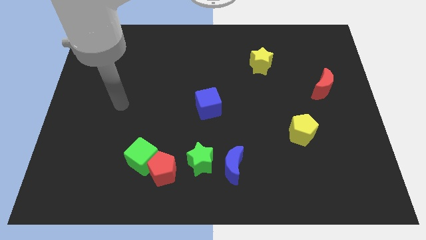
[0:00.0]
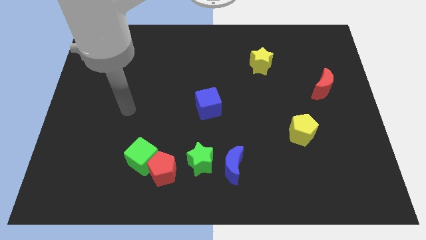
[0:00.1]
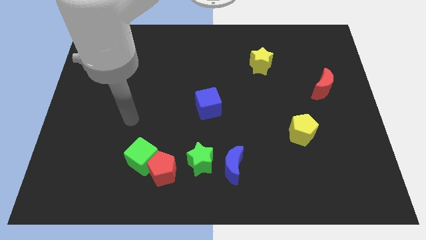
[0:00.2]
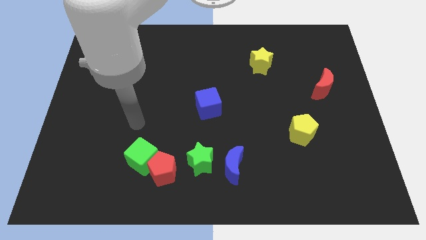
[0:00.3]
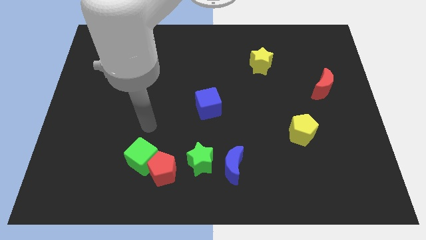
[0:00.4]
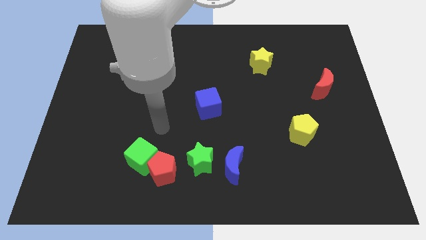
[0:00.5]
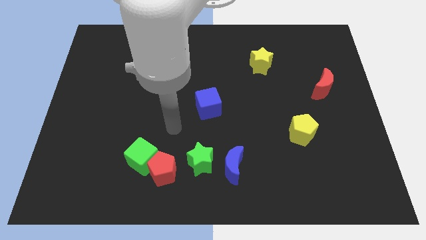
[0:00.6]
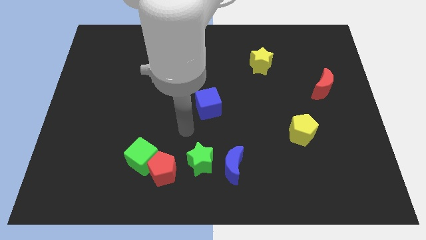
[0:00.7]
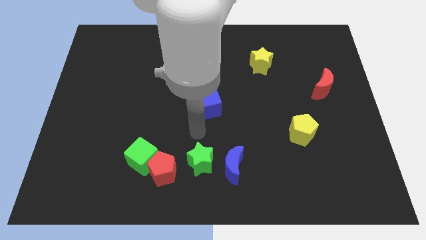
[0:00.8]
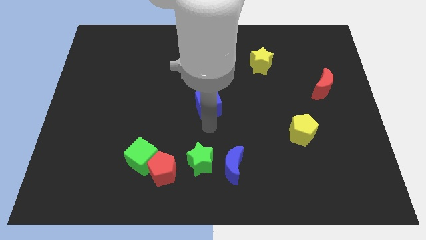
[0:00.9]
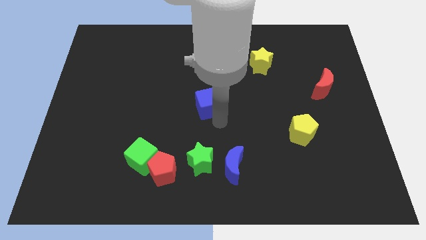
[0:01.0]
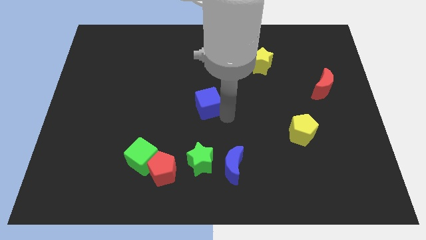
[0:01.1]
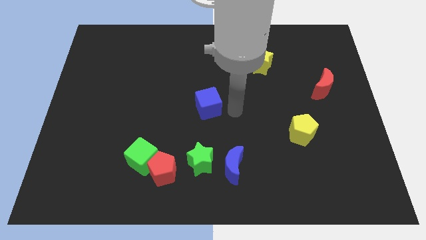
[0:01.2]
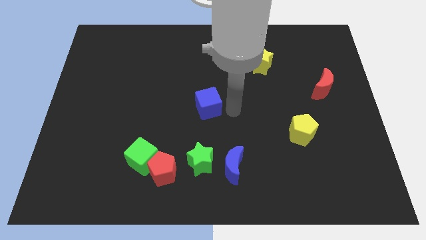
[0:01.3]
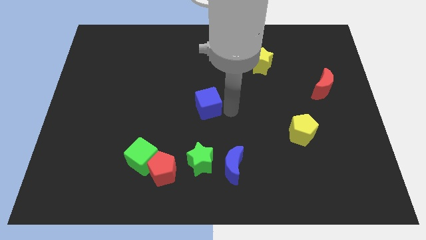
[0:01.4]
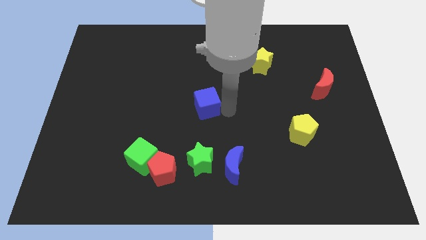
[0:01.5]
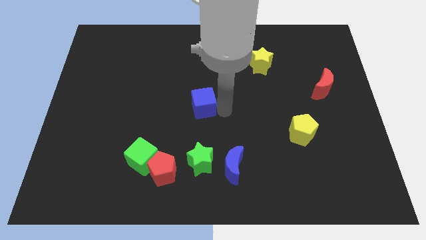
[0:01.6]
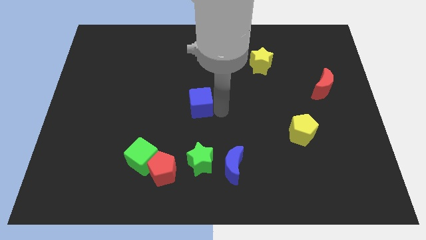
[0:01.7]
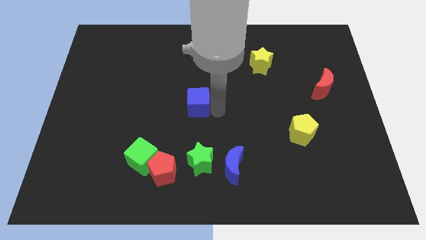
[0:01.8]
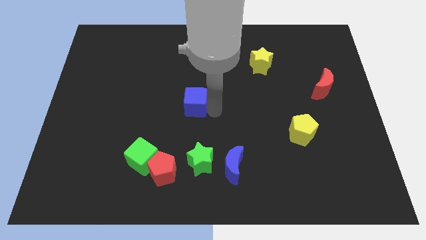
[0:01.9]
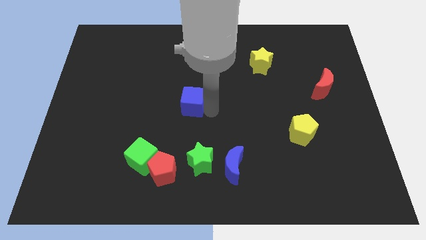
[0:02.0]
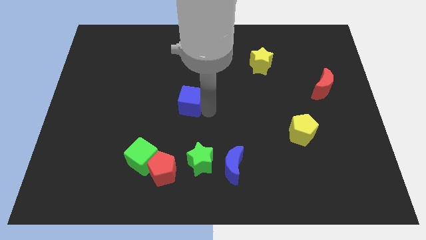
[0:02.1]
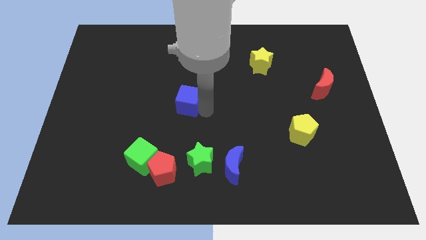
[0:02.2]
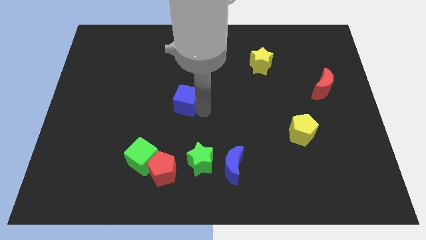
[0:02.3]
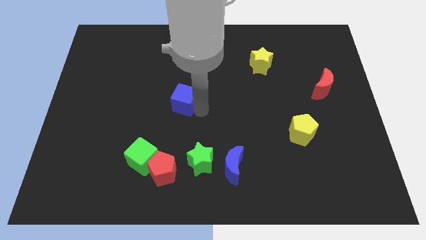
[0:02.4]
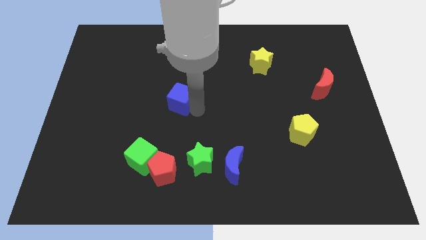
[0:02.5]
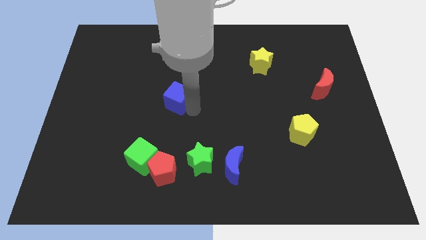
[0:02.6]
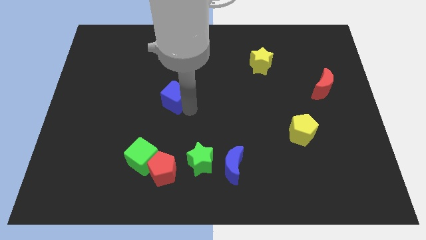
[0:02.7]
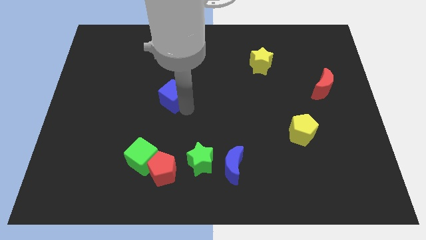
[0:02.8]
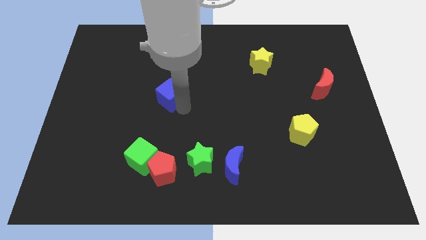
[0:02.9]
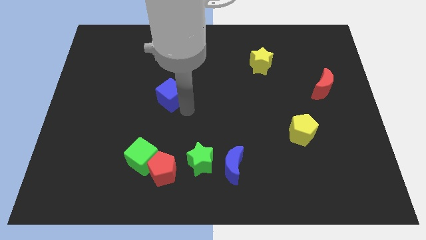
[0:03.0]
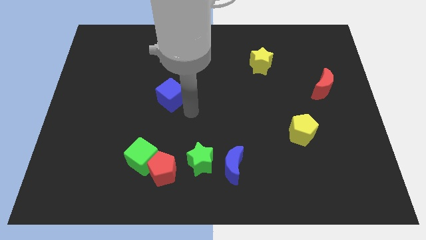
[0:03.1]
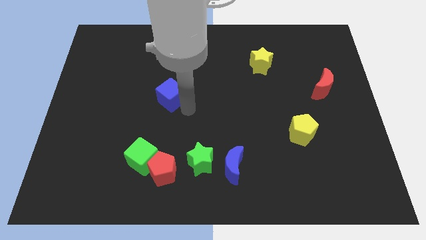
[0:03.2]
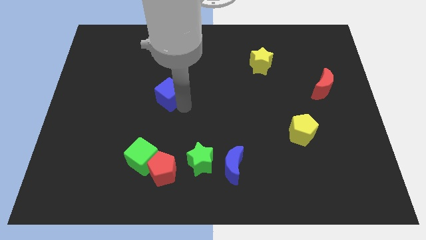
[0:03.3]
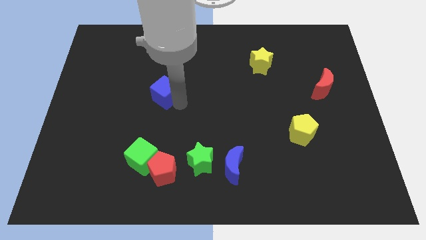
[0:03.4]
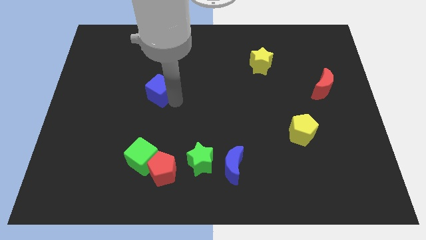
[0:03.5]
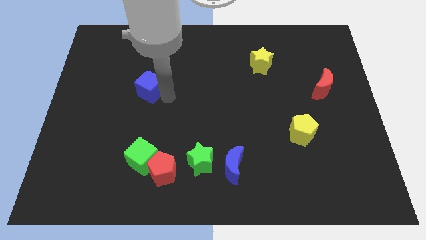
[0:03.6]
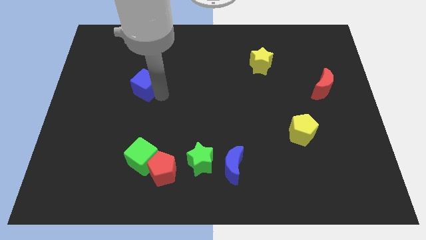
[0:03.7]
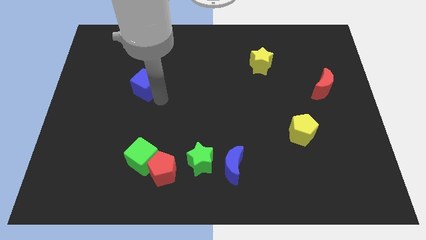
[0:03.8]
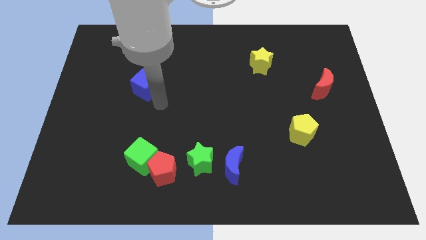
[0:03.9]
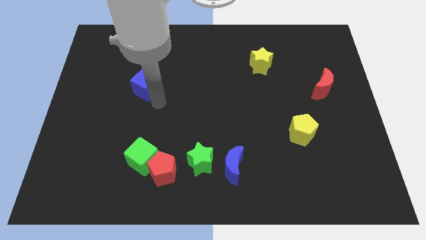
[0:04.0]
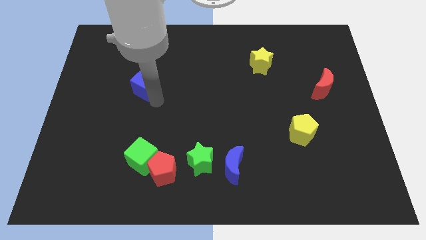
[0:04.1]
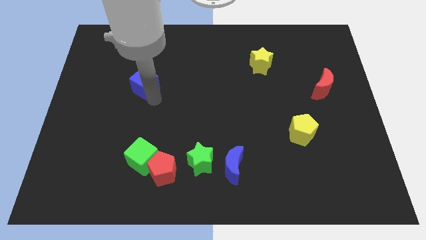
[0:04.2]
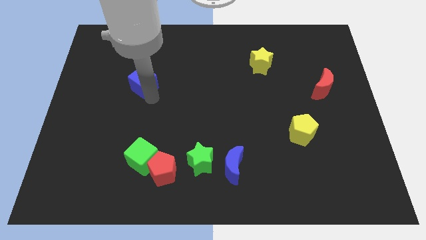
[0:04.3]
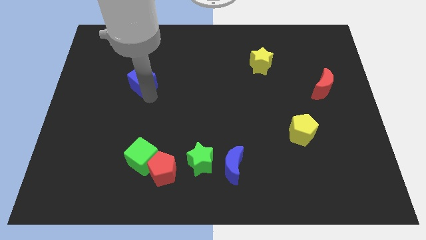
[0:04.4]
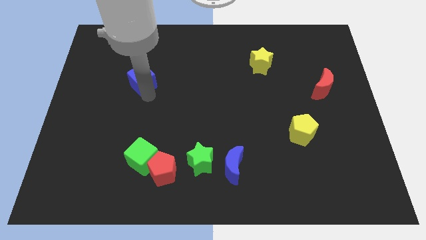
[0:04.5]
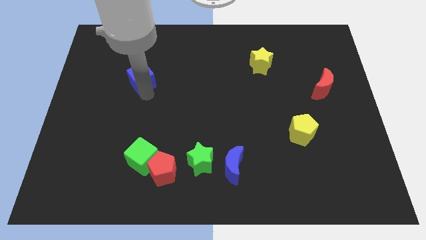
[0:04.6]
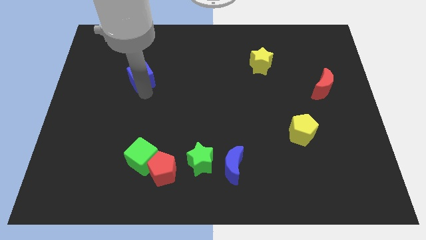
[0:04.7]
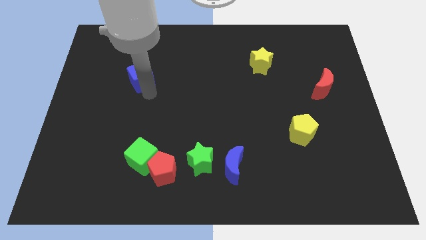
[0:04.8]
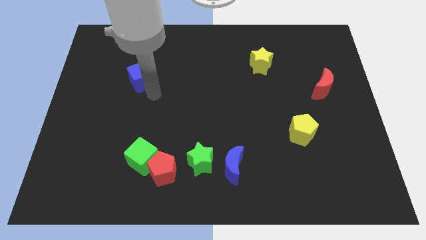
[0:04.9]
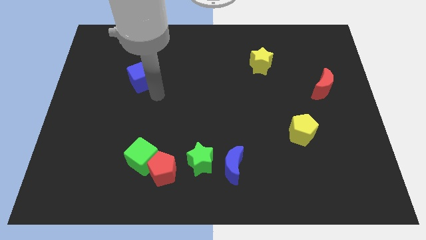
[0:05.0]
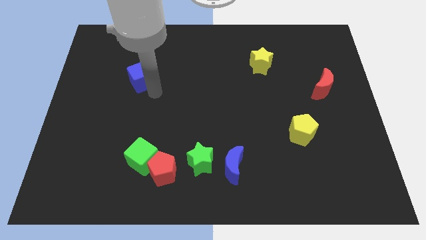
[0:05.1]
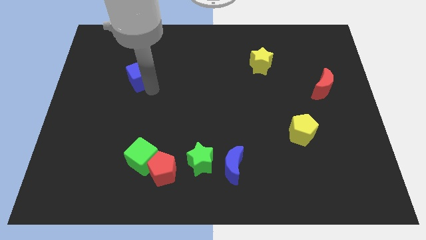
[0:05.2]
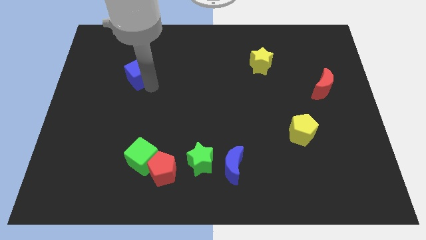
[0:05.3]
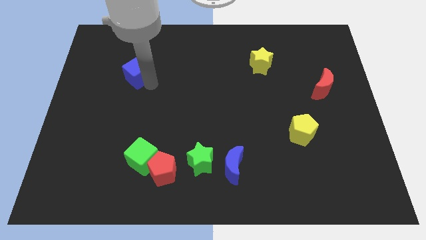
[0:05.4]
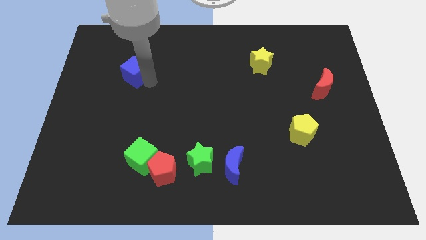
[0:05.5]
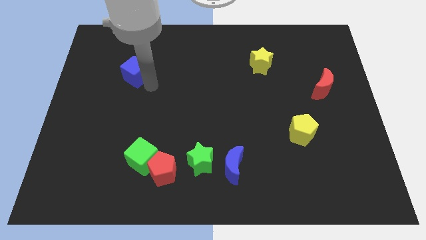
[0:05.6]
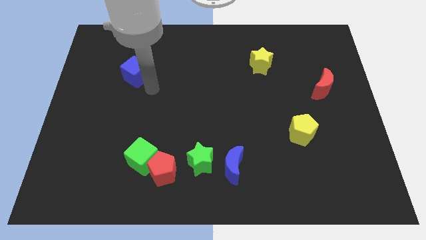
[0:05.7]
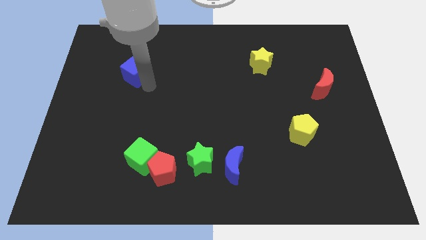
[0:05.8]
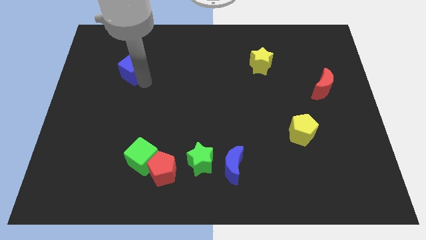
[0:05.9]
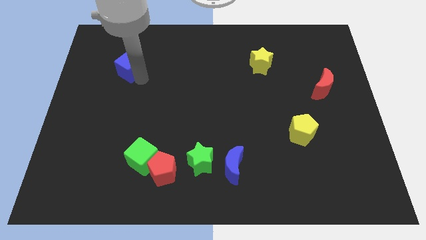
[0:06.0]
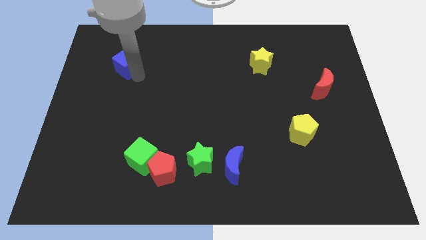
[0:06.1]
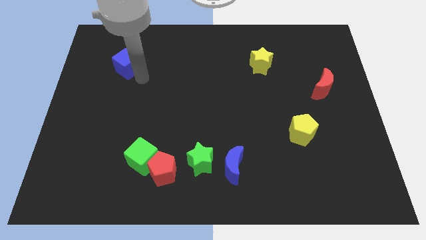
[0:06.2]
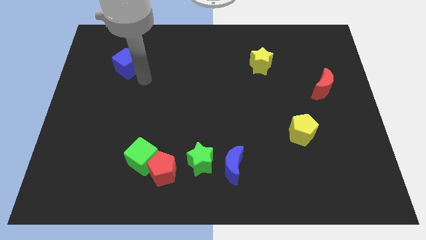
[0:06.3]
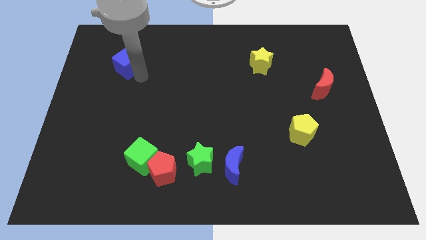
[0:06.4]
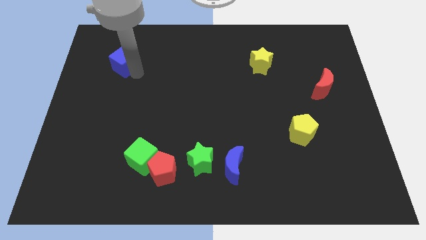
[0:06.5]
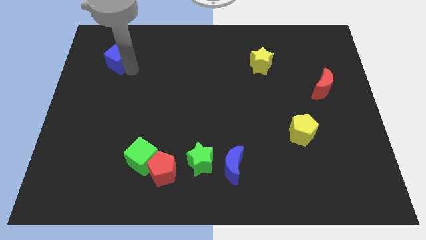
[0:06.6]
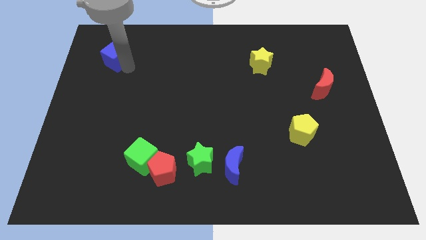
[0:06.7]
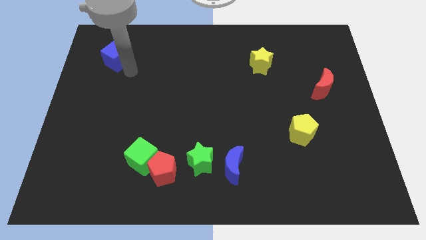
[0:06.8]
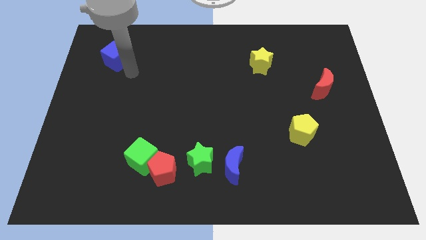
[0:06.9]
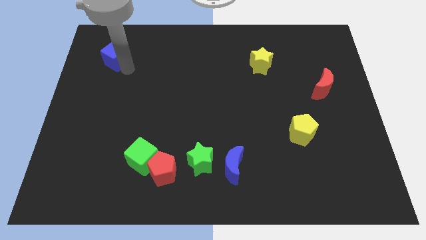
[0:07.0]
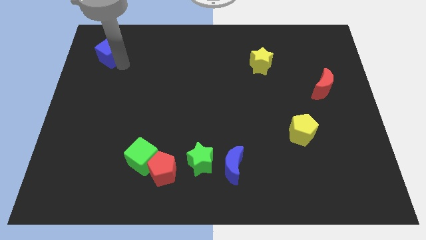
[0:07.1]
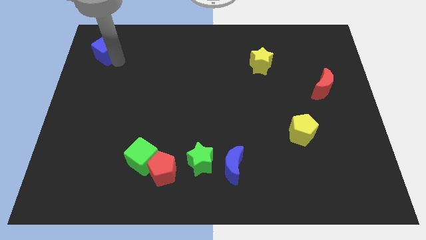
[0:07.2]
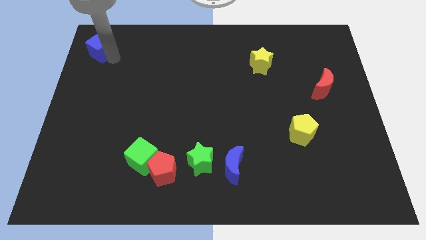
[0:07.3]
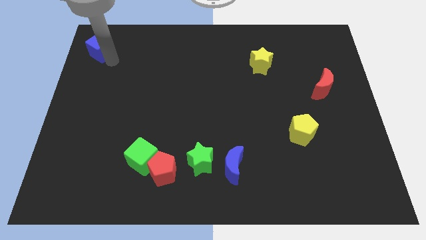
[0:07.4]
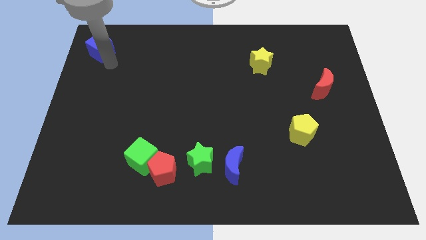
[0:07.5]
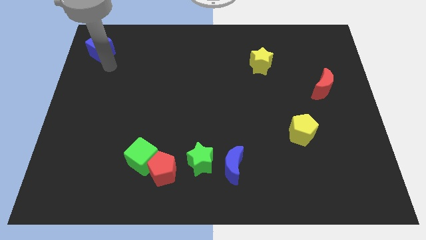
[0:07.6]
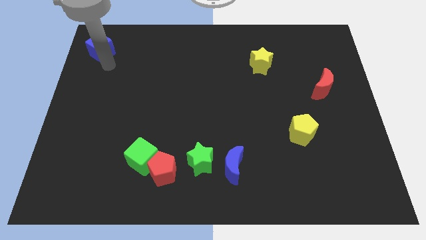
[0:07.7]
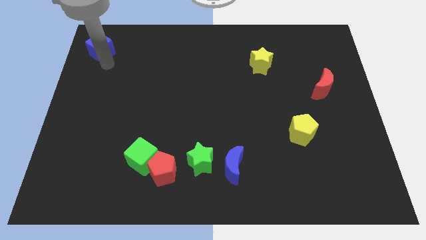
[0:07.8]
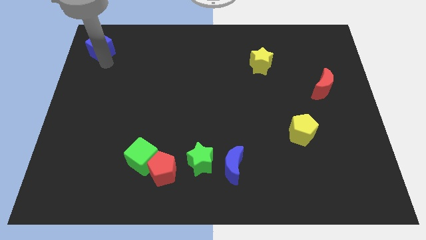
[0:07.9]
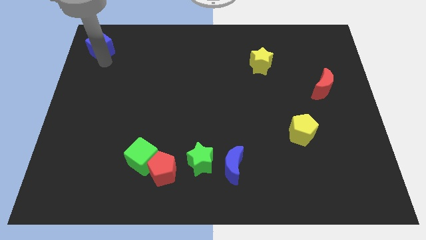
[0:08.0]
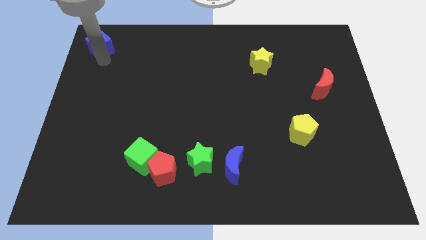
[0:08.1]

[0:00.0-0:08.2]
push the blue cube to the top left of the board
